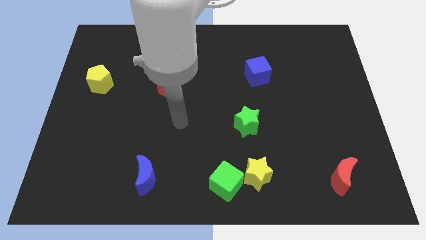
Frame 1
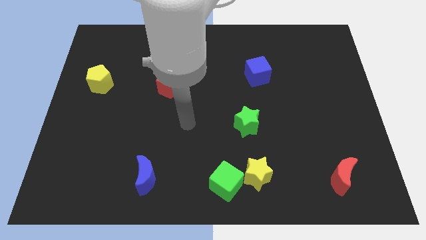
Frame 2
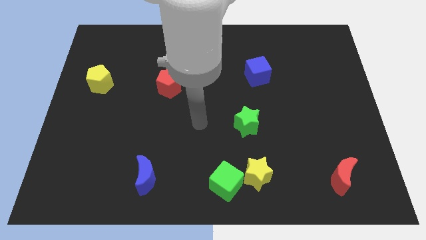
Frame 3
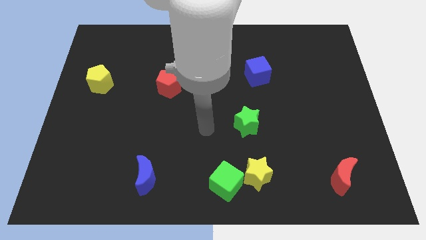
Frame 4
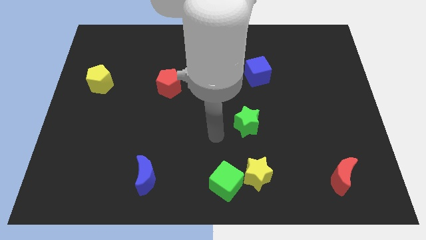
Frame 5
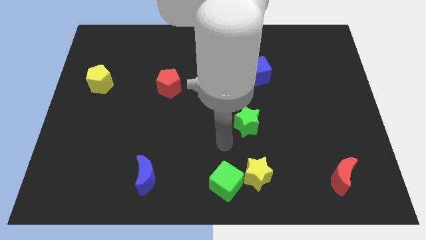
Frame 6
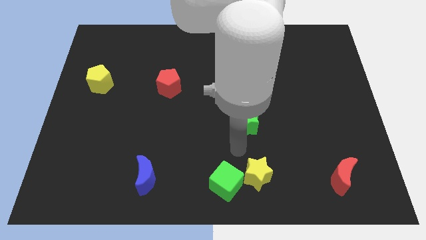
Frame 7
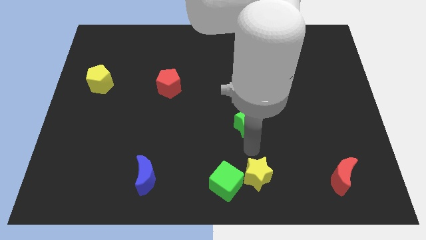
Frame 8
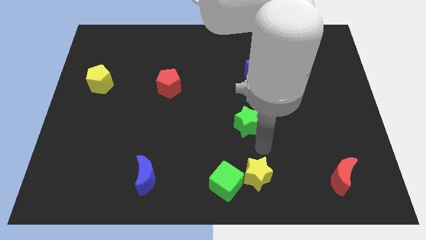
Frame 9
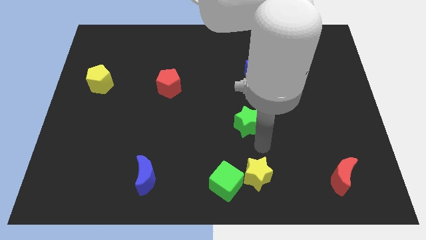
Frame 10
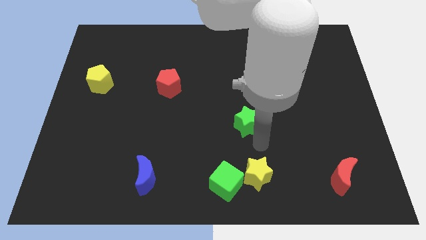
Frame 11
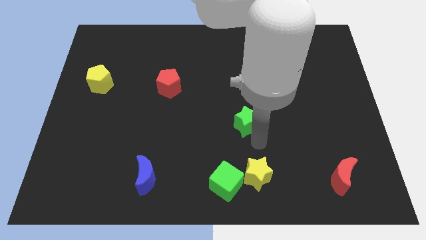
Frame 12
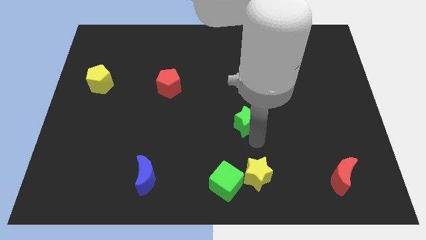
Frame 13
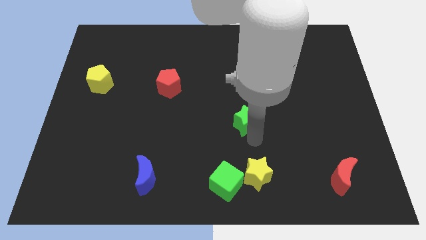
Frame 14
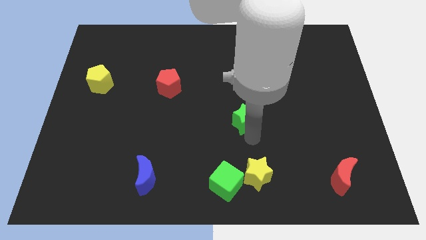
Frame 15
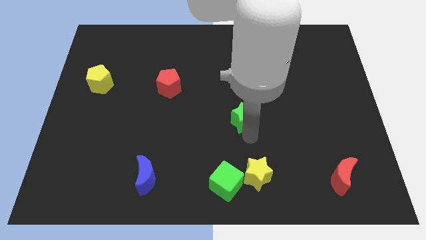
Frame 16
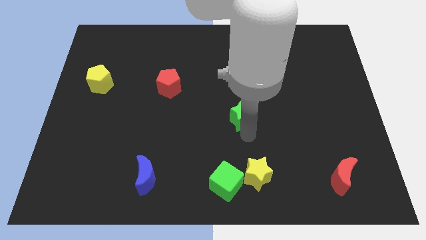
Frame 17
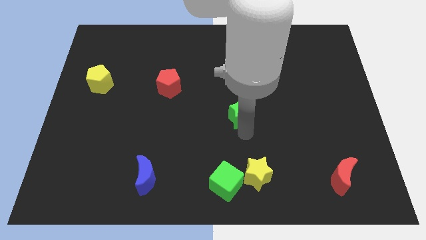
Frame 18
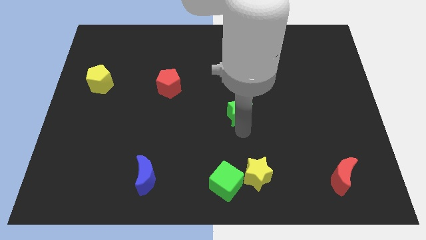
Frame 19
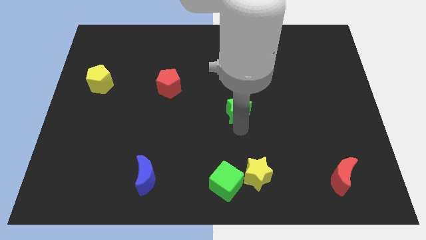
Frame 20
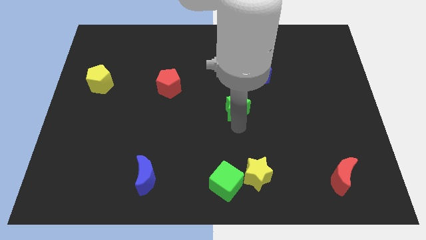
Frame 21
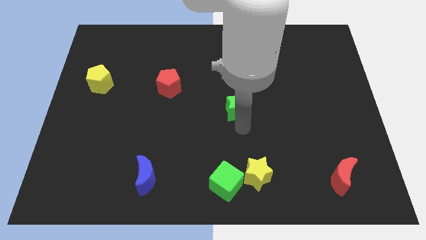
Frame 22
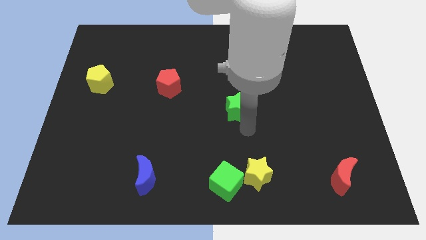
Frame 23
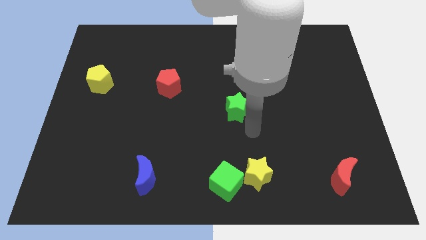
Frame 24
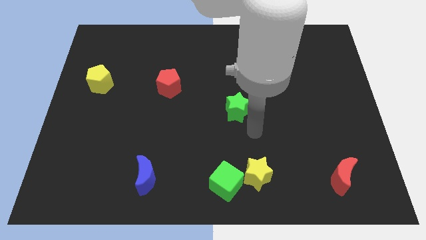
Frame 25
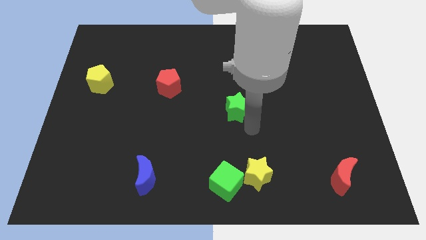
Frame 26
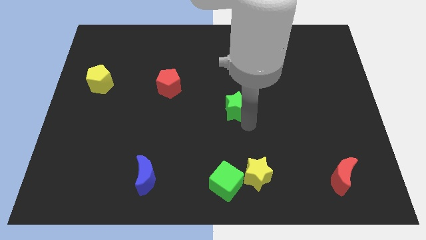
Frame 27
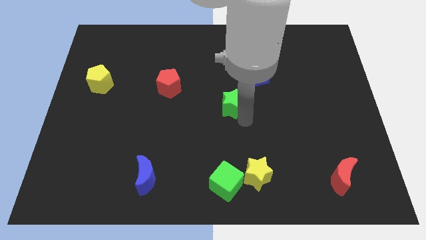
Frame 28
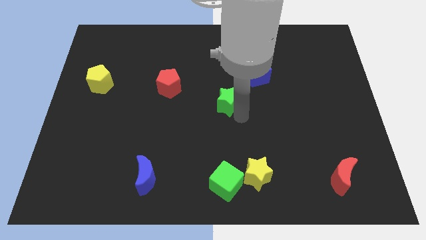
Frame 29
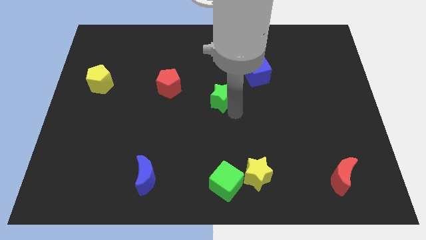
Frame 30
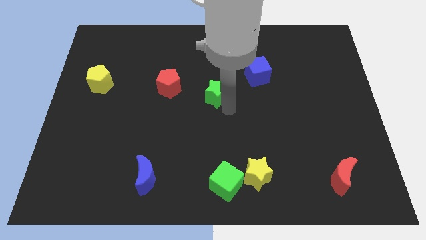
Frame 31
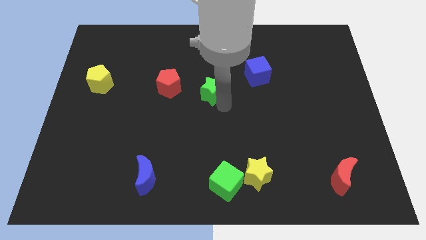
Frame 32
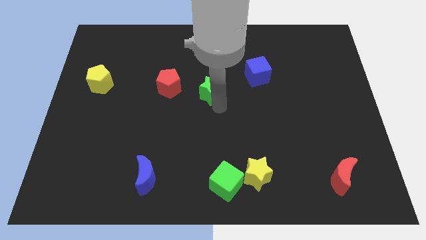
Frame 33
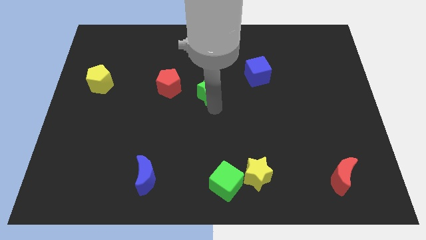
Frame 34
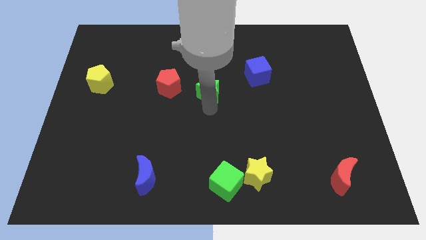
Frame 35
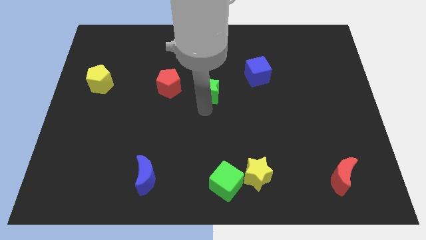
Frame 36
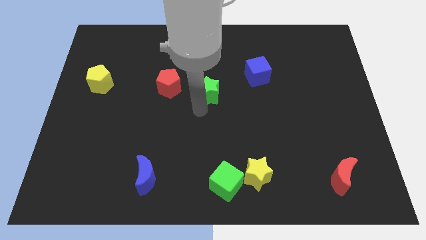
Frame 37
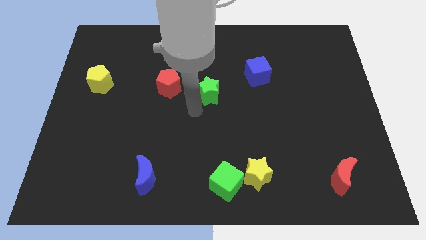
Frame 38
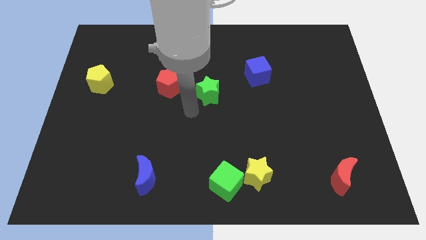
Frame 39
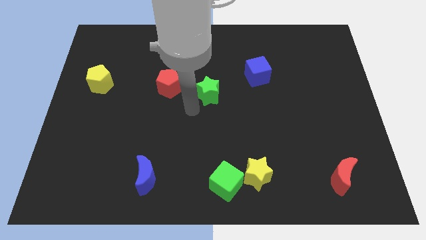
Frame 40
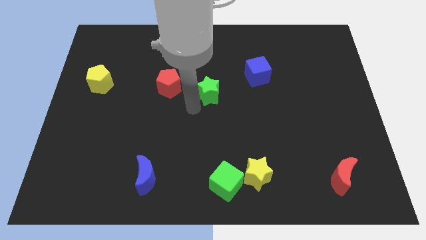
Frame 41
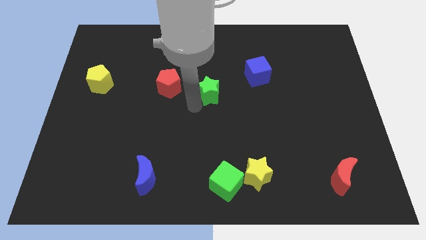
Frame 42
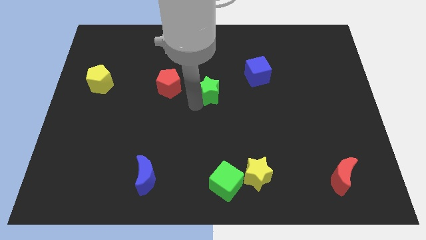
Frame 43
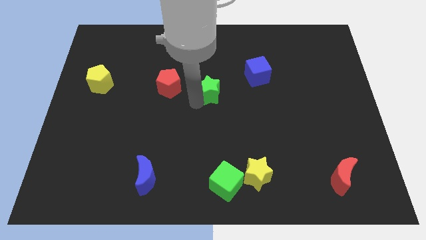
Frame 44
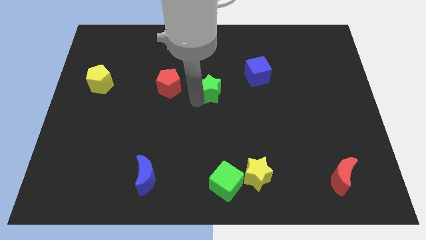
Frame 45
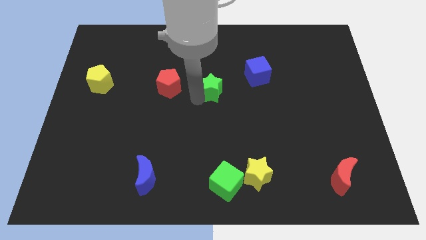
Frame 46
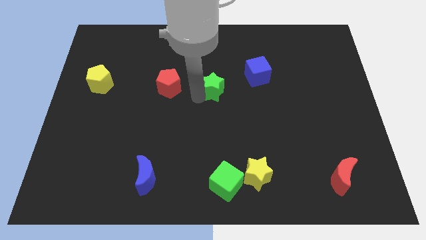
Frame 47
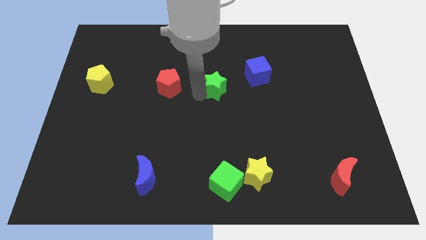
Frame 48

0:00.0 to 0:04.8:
slide the green star to the left side of the blue cube

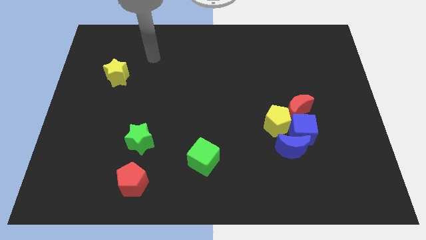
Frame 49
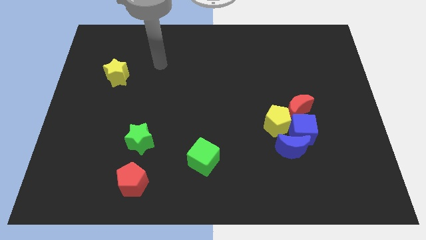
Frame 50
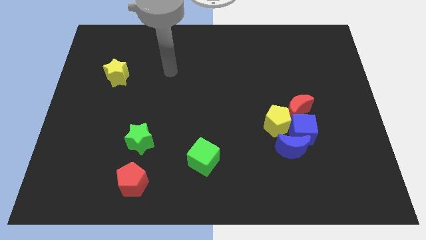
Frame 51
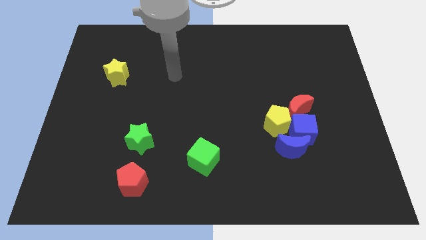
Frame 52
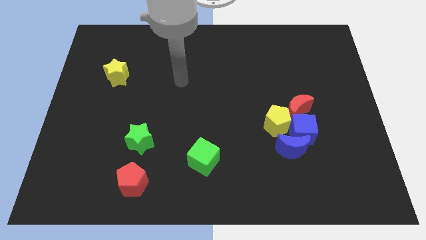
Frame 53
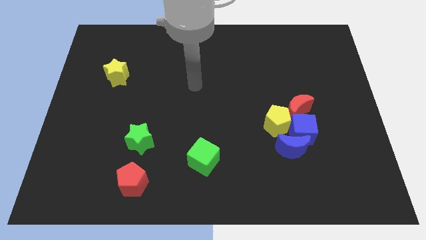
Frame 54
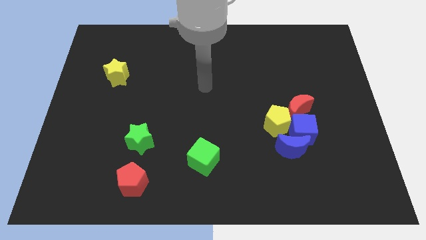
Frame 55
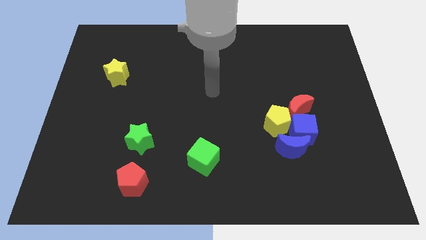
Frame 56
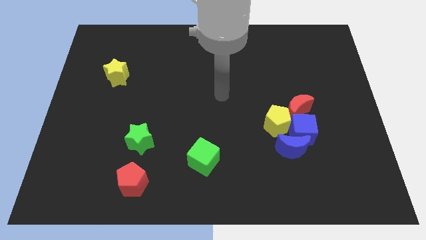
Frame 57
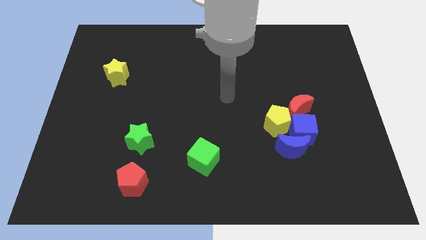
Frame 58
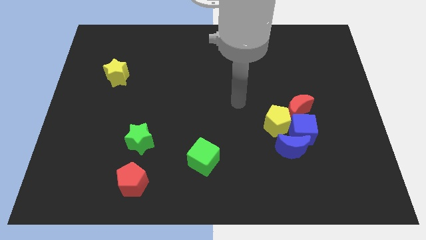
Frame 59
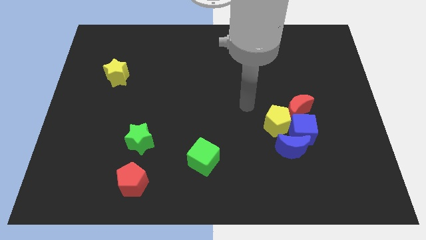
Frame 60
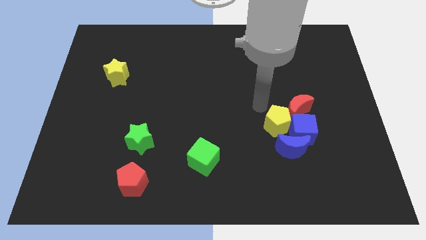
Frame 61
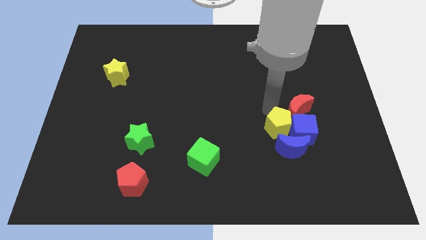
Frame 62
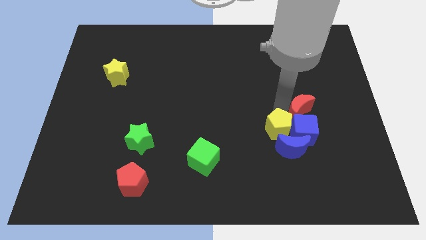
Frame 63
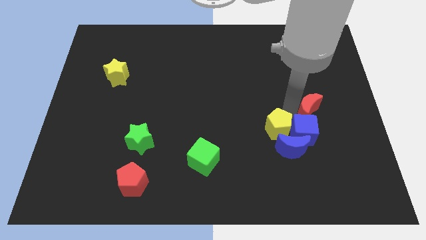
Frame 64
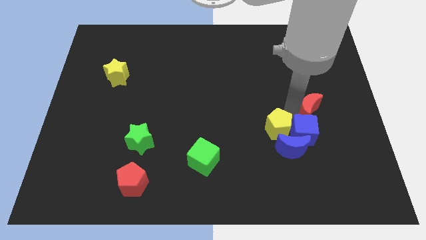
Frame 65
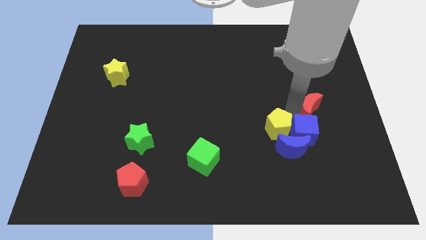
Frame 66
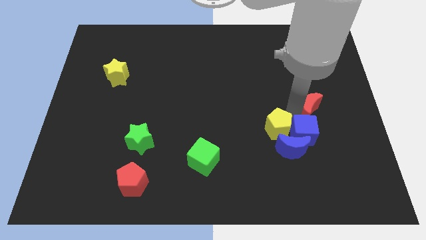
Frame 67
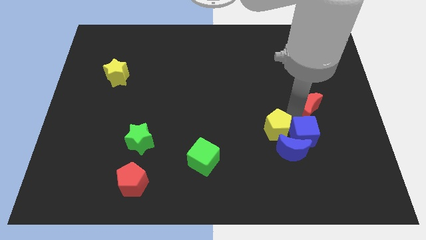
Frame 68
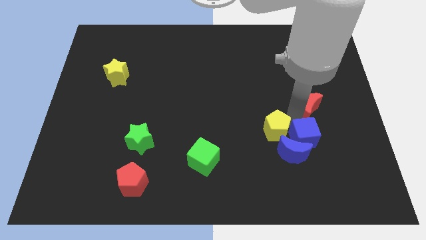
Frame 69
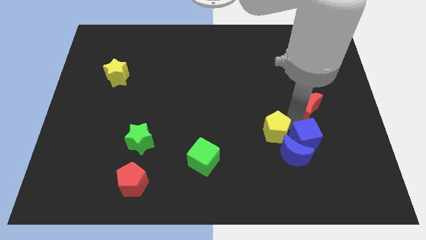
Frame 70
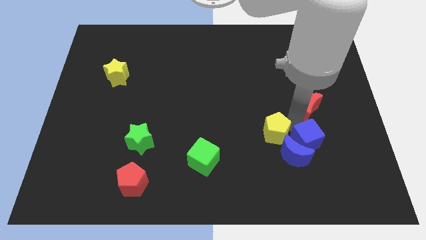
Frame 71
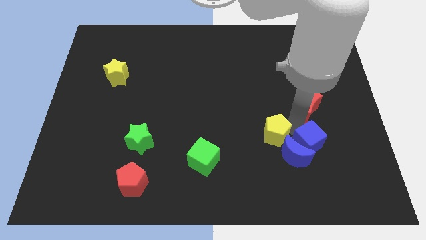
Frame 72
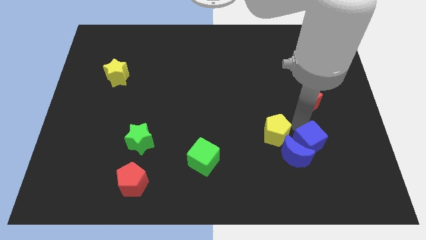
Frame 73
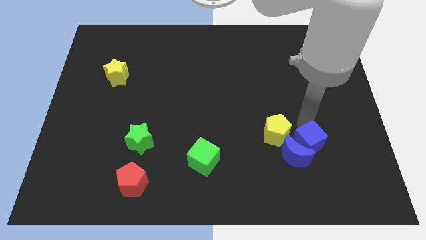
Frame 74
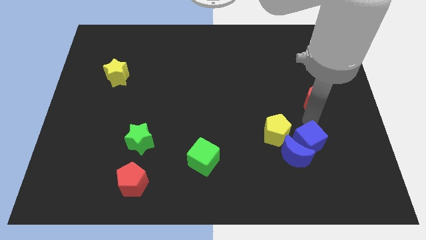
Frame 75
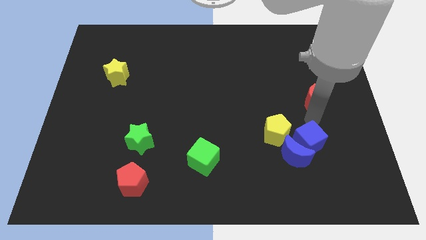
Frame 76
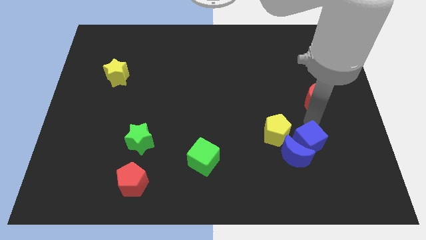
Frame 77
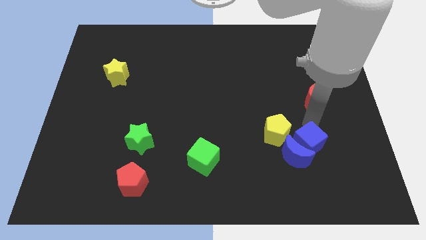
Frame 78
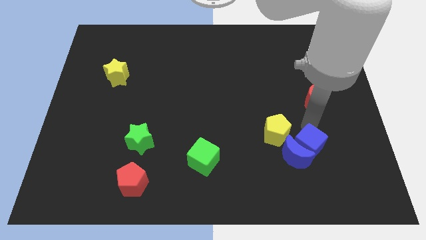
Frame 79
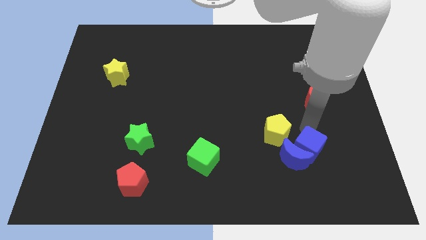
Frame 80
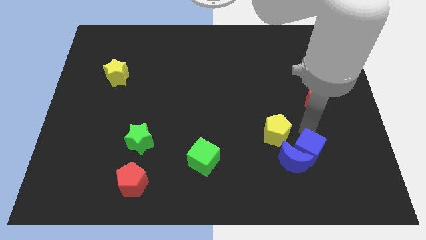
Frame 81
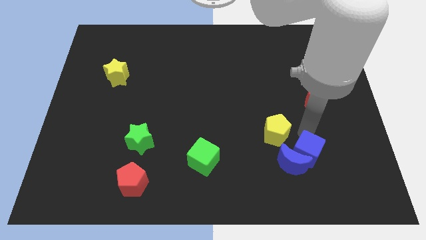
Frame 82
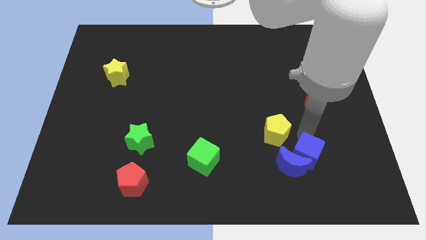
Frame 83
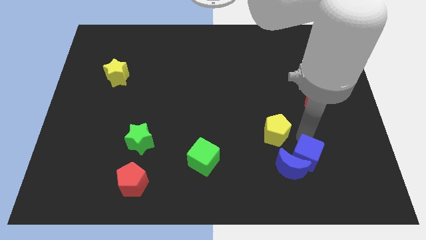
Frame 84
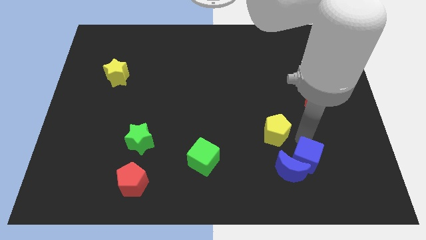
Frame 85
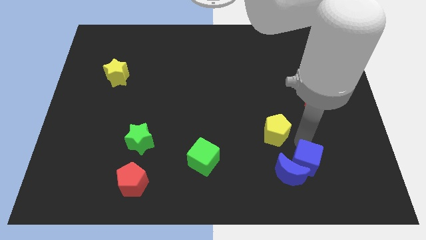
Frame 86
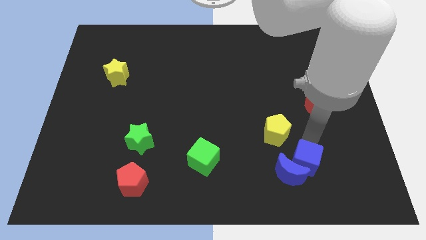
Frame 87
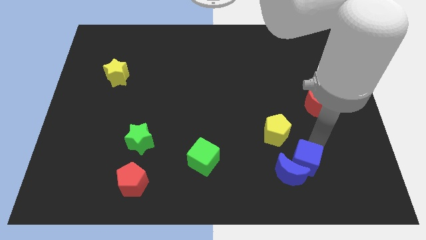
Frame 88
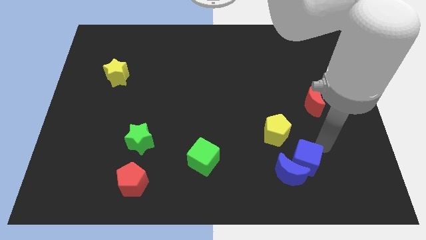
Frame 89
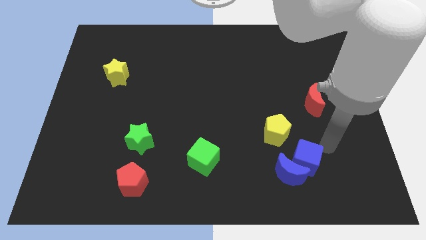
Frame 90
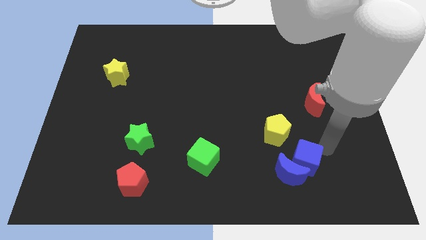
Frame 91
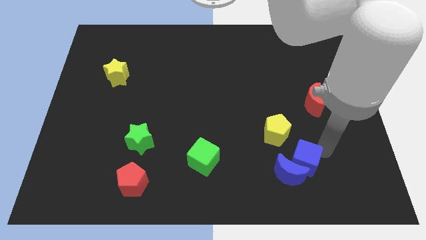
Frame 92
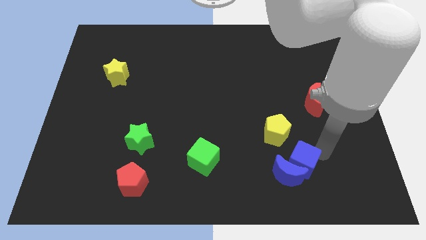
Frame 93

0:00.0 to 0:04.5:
push the blue cube to the bottom of the yellow pentagon
